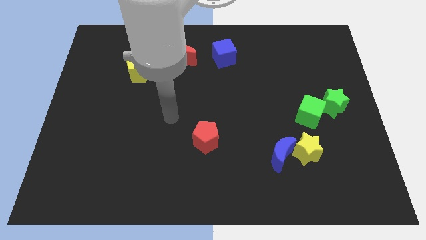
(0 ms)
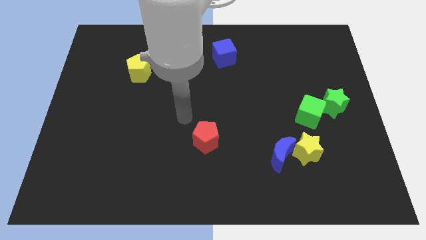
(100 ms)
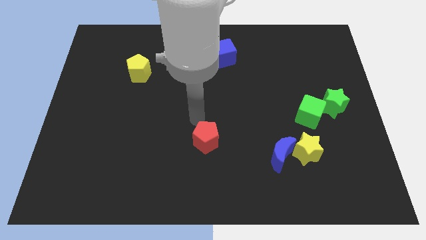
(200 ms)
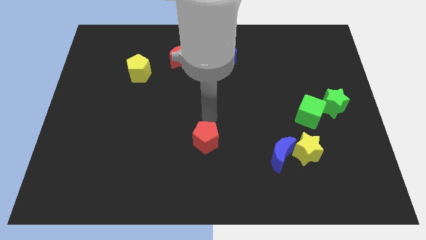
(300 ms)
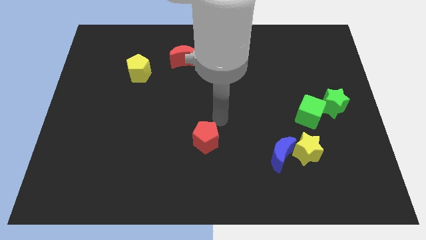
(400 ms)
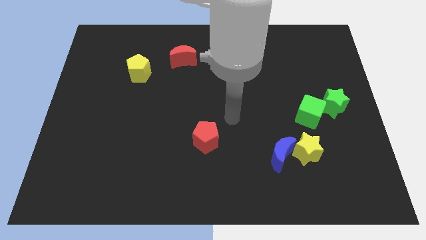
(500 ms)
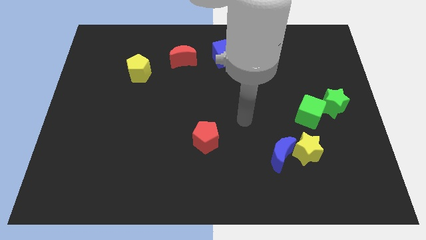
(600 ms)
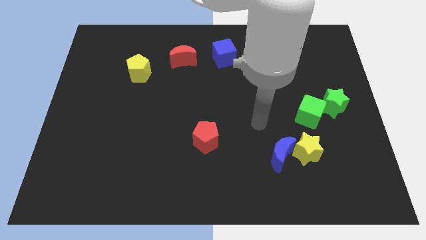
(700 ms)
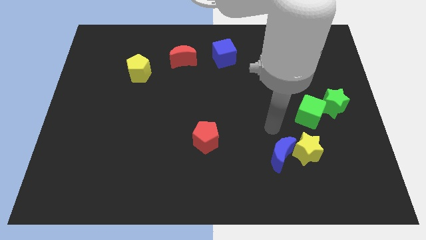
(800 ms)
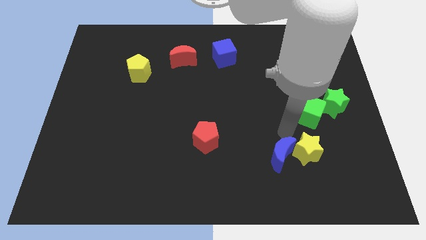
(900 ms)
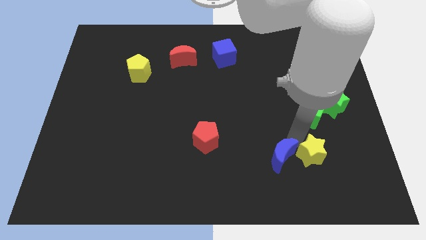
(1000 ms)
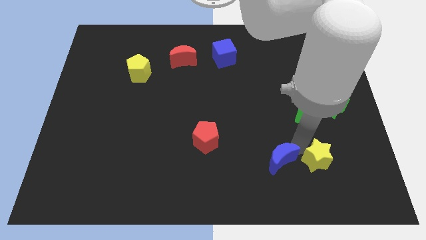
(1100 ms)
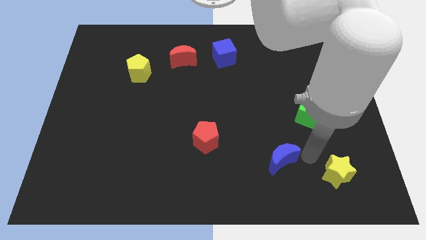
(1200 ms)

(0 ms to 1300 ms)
separate the blue moon from the yellow star

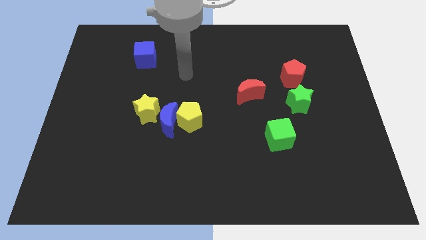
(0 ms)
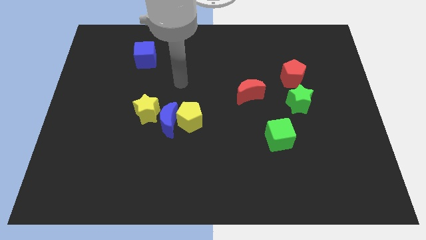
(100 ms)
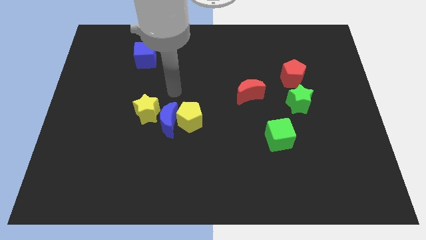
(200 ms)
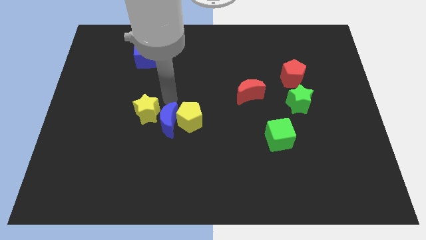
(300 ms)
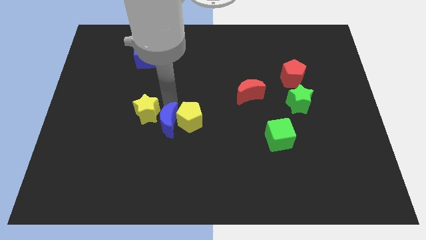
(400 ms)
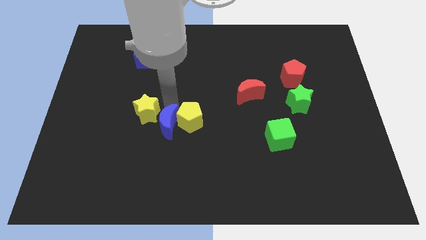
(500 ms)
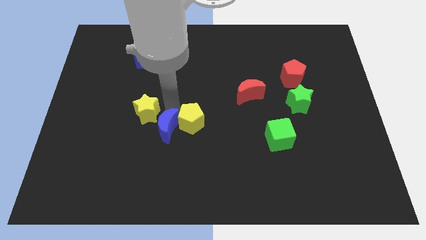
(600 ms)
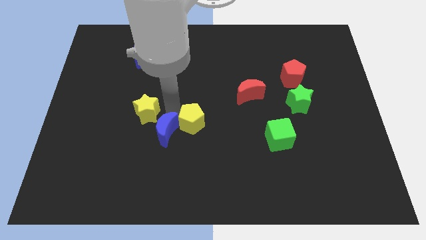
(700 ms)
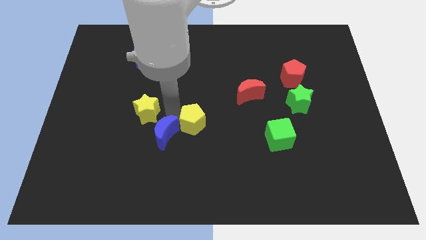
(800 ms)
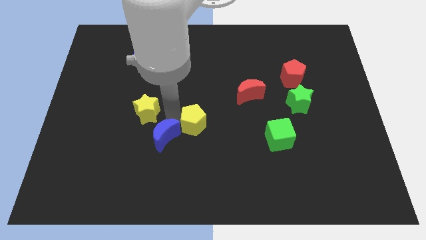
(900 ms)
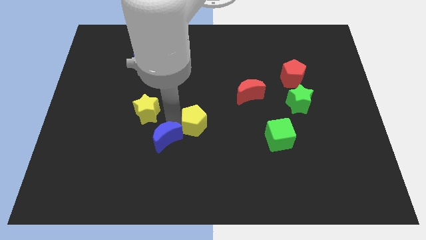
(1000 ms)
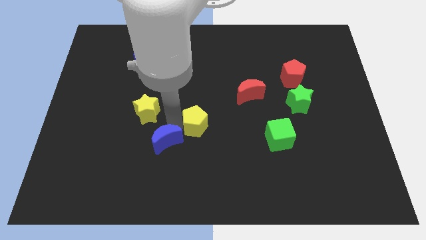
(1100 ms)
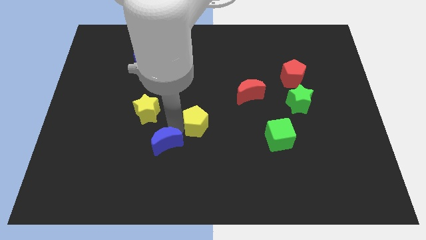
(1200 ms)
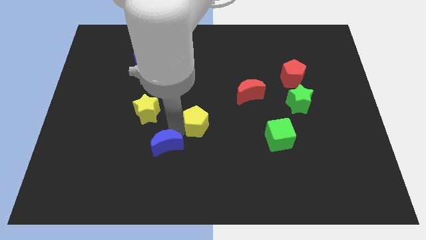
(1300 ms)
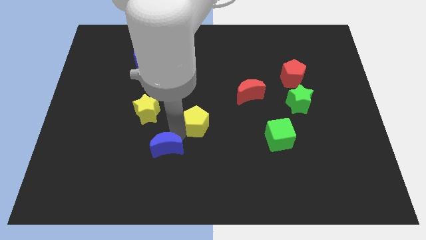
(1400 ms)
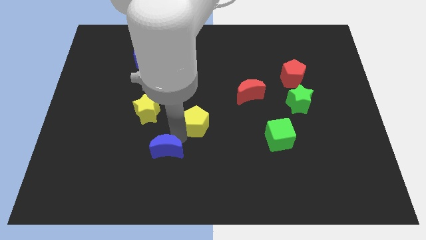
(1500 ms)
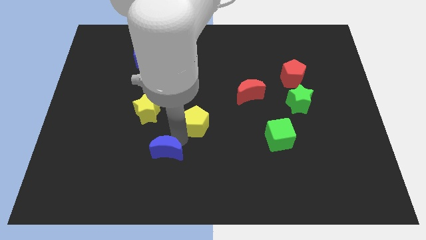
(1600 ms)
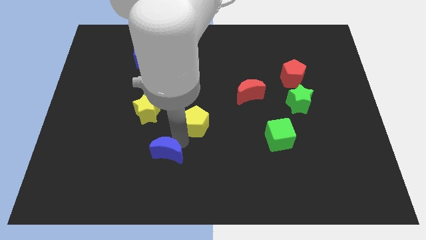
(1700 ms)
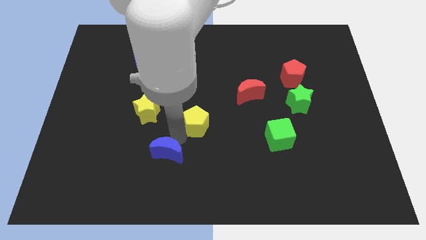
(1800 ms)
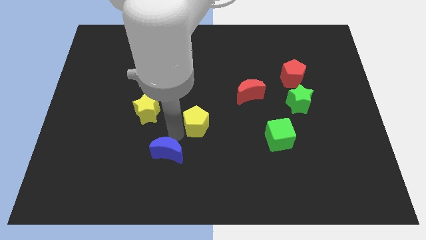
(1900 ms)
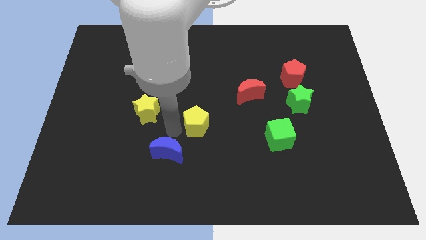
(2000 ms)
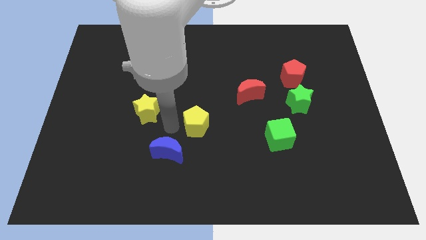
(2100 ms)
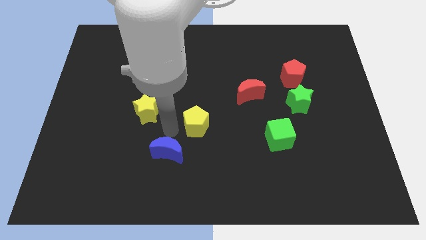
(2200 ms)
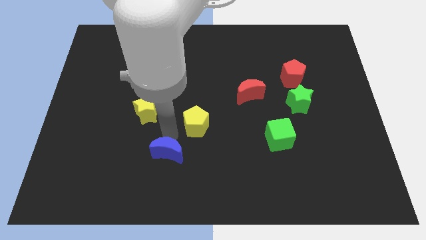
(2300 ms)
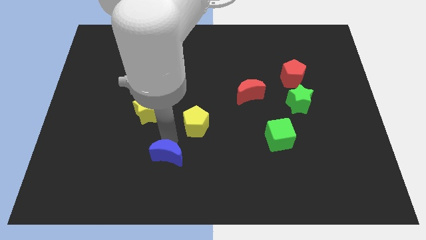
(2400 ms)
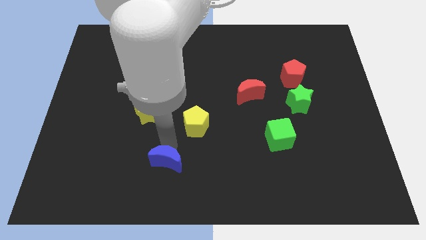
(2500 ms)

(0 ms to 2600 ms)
move the blue moon away from the yellow pentagon and yellow star

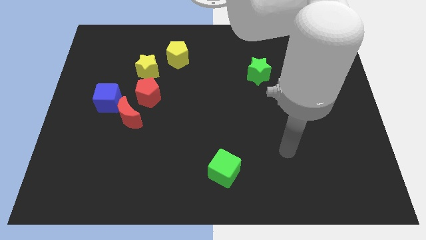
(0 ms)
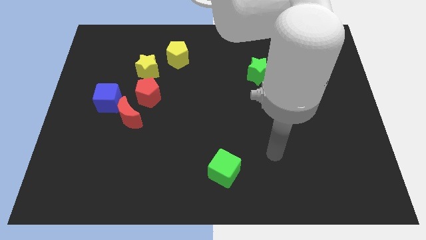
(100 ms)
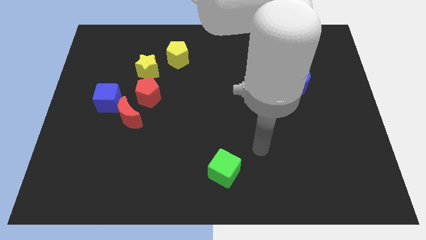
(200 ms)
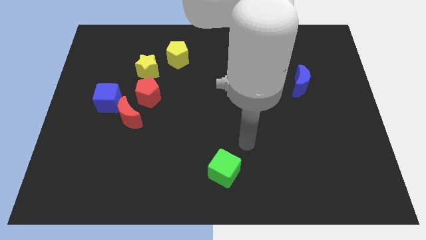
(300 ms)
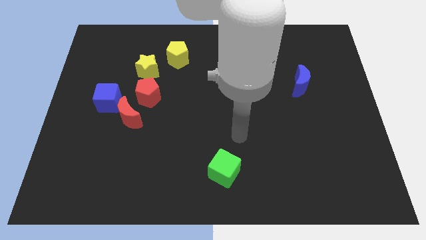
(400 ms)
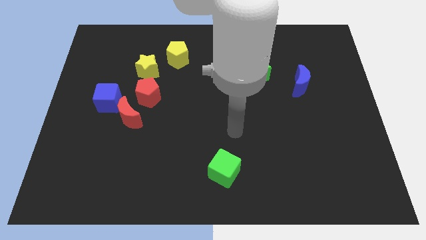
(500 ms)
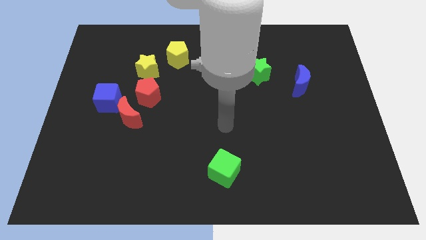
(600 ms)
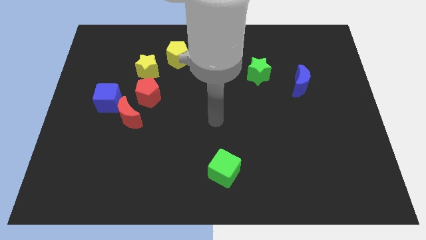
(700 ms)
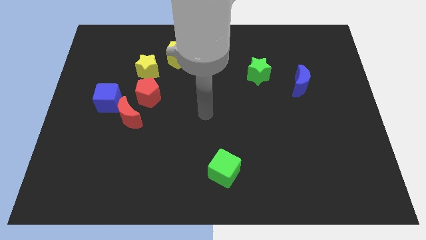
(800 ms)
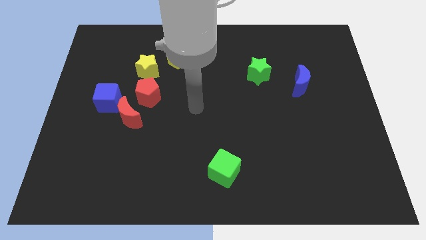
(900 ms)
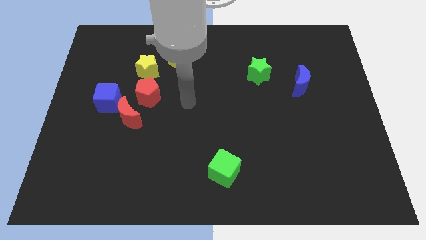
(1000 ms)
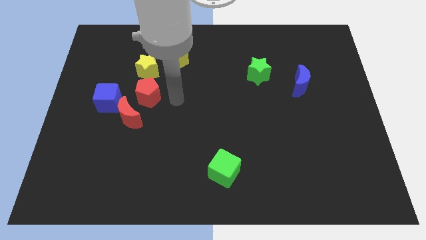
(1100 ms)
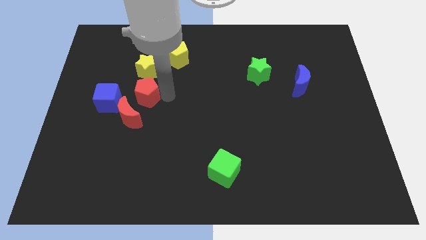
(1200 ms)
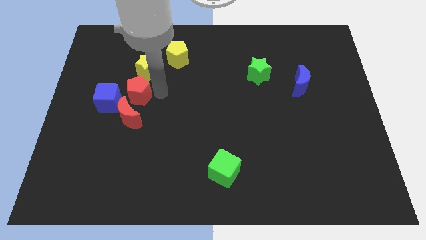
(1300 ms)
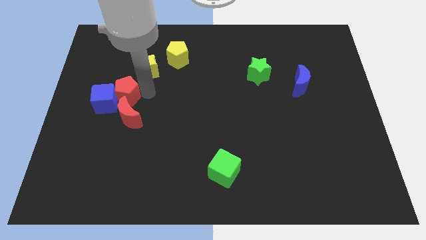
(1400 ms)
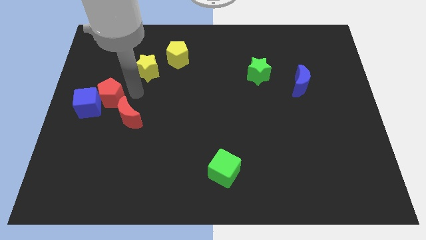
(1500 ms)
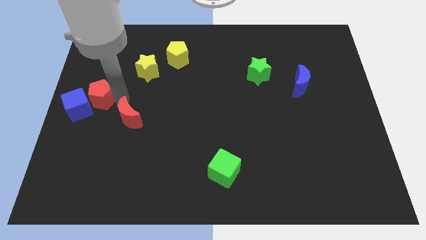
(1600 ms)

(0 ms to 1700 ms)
move the red moon away from the blue cube and red pentagon

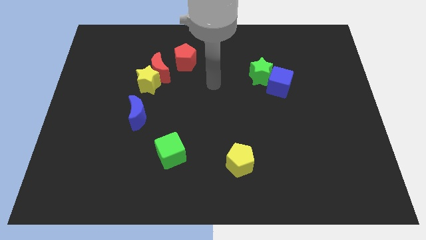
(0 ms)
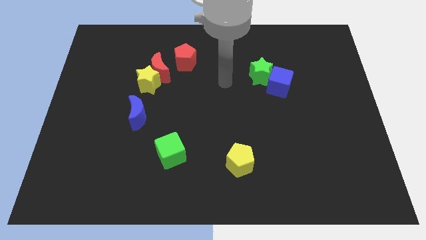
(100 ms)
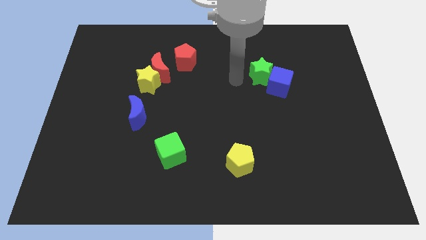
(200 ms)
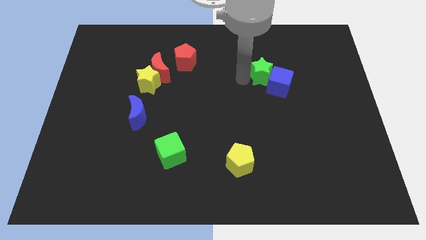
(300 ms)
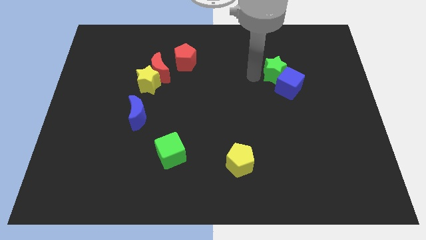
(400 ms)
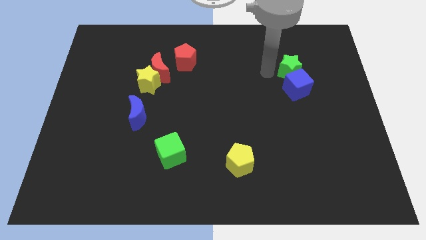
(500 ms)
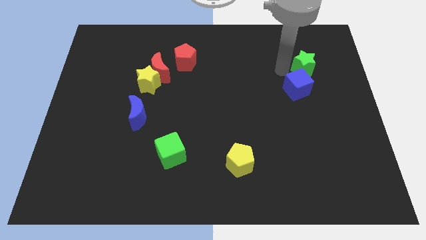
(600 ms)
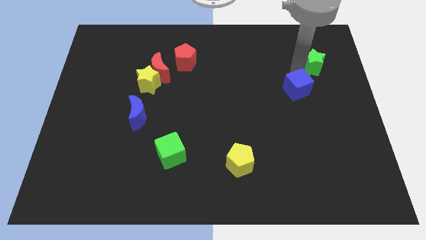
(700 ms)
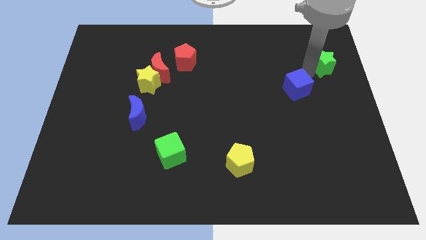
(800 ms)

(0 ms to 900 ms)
pull the blue cube apart from the green star

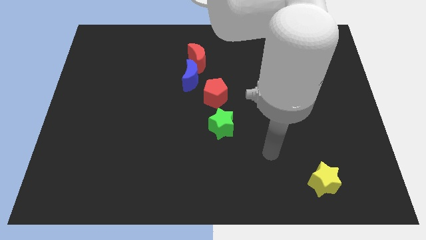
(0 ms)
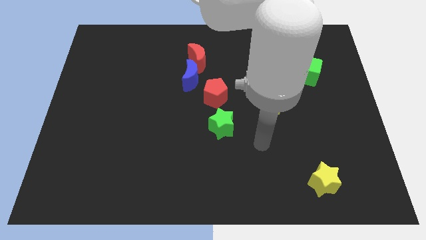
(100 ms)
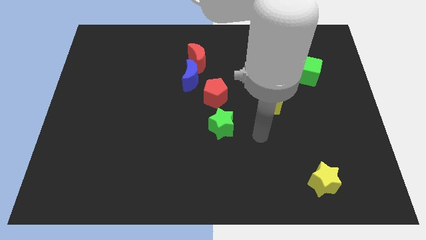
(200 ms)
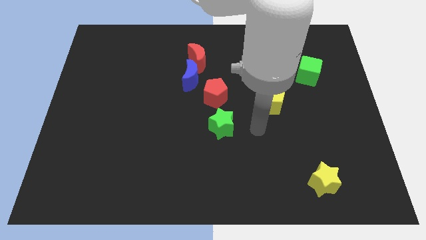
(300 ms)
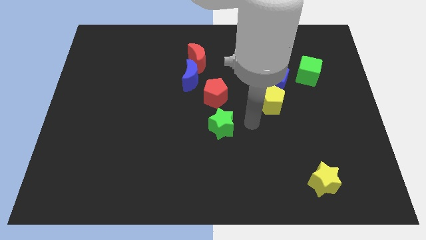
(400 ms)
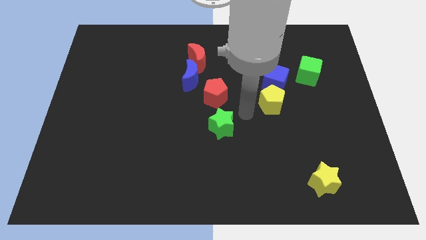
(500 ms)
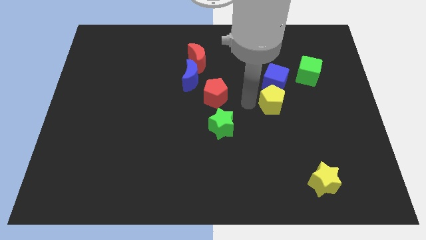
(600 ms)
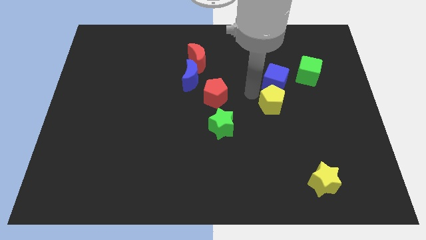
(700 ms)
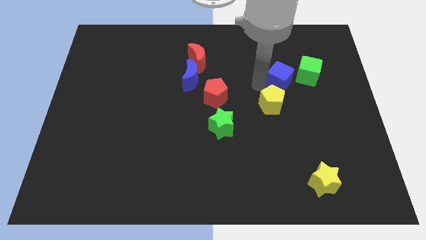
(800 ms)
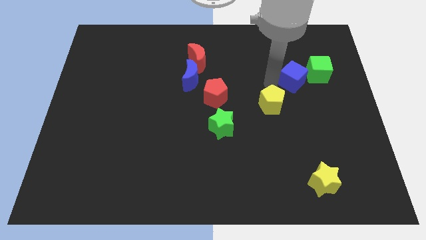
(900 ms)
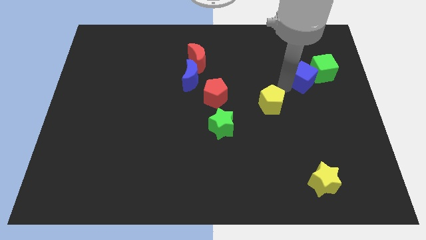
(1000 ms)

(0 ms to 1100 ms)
pull the yellow pentagon apart from the blue cube

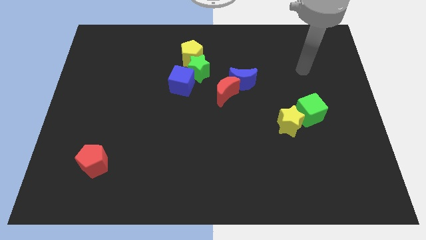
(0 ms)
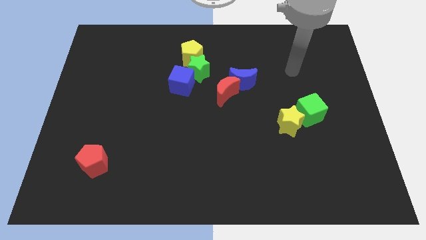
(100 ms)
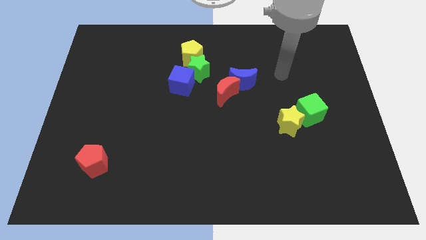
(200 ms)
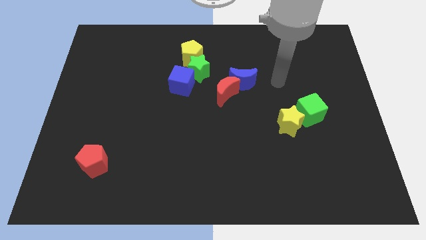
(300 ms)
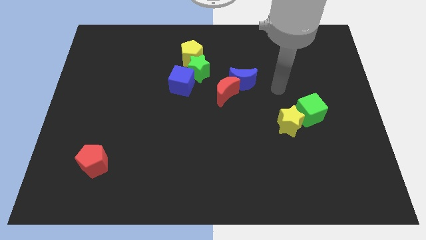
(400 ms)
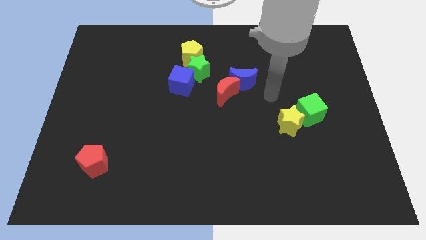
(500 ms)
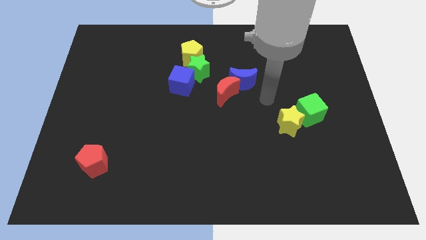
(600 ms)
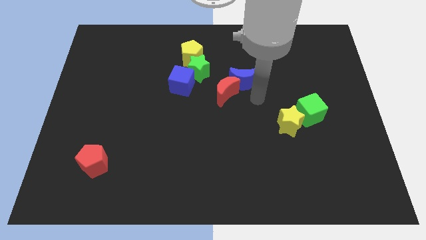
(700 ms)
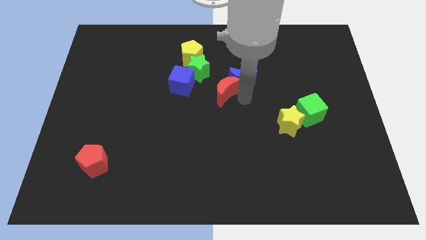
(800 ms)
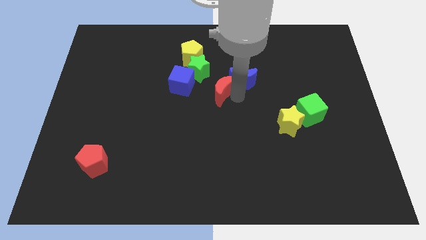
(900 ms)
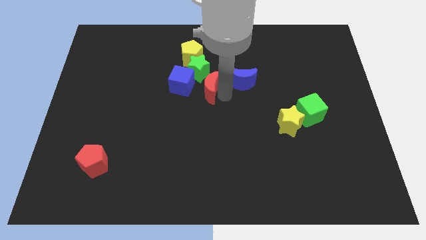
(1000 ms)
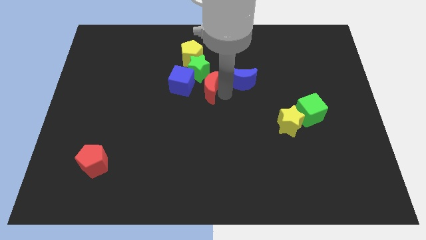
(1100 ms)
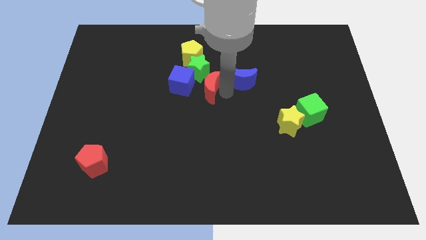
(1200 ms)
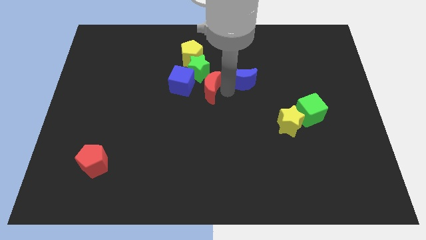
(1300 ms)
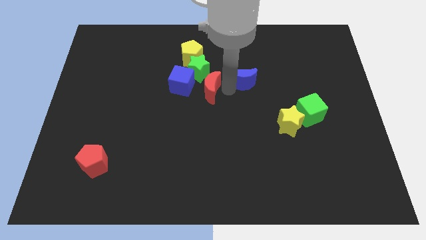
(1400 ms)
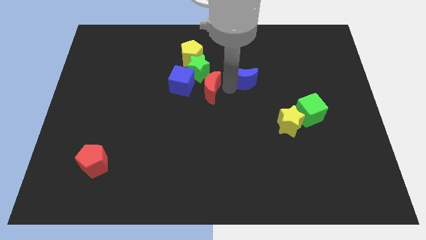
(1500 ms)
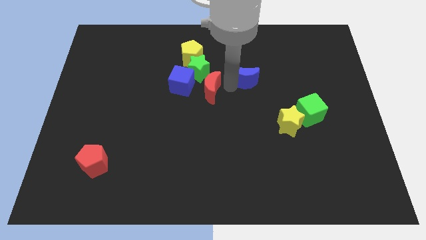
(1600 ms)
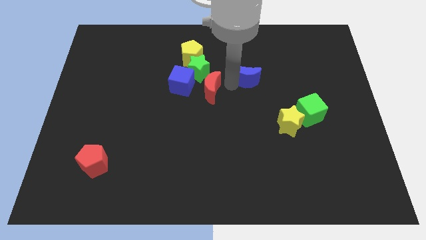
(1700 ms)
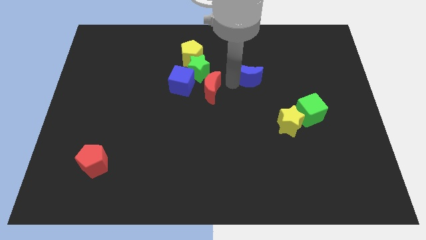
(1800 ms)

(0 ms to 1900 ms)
move the blue moon away from the red moon

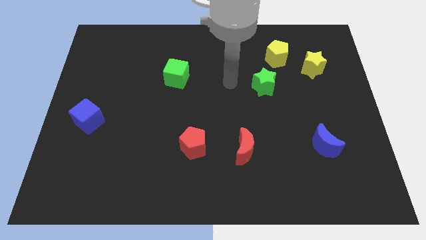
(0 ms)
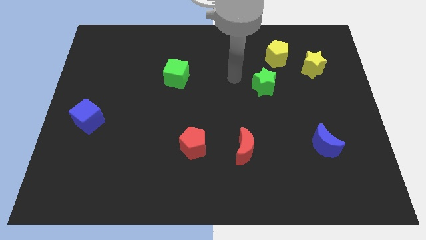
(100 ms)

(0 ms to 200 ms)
pull the yellow star apart from the yellow pentagon
